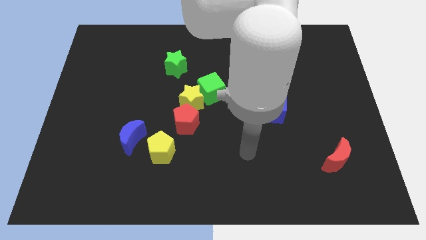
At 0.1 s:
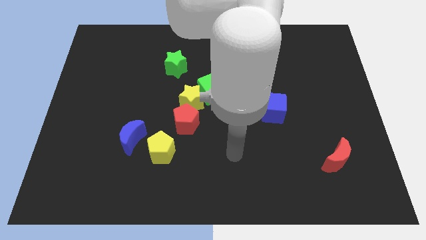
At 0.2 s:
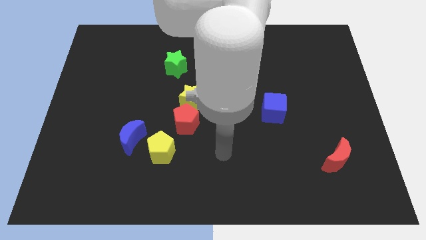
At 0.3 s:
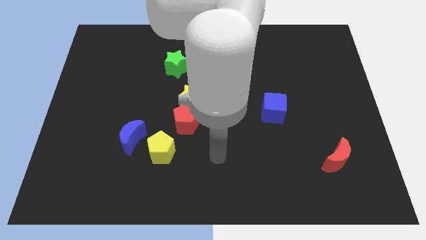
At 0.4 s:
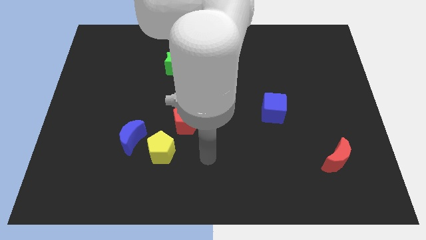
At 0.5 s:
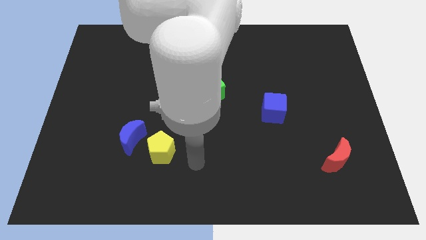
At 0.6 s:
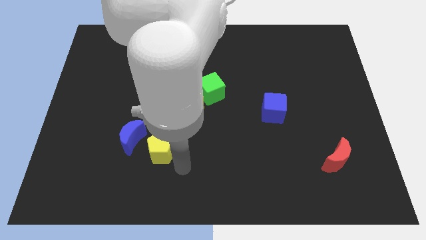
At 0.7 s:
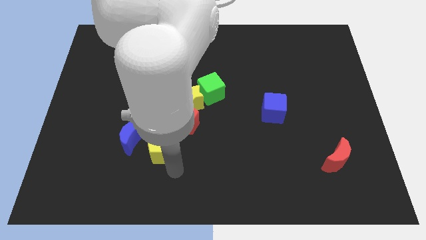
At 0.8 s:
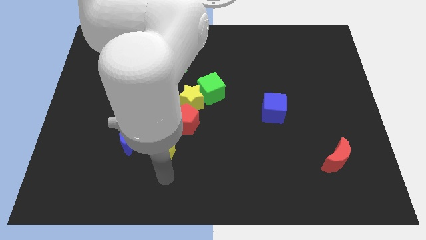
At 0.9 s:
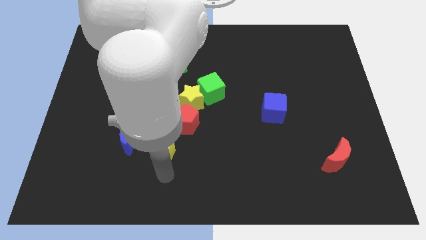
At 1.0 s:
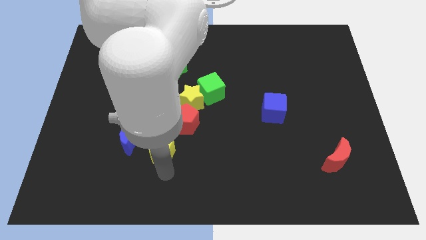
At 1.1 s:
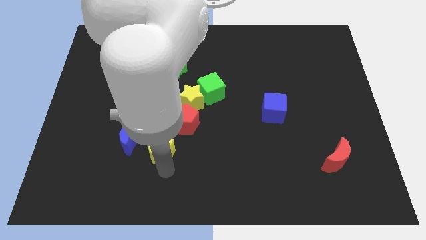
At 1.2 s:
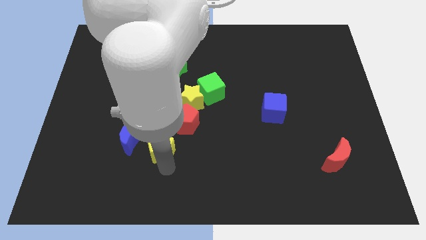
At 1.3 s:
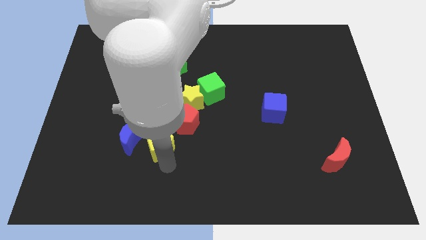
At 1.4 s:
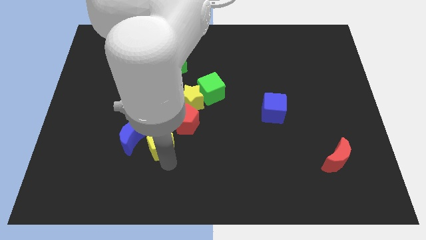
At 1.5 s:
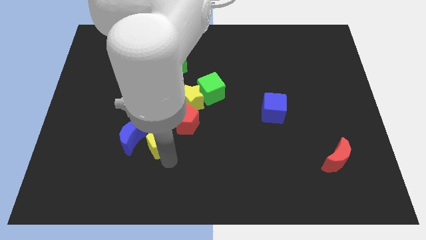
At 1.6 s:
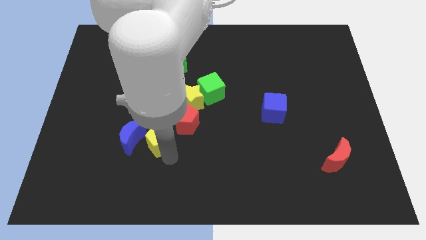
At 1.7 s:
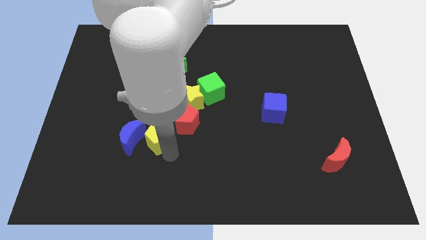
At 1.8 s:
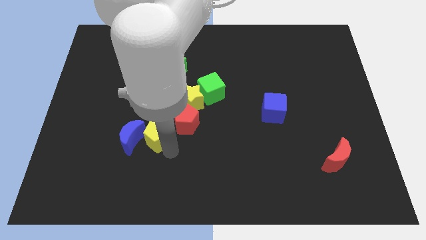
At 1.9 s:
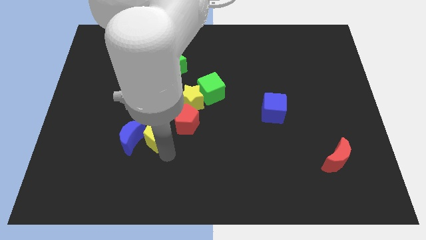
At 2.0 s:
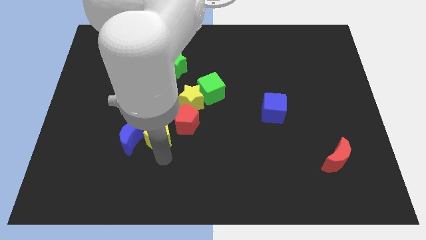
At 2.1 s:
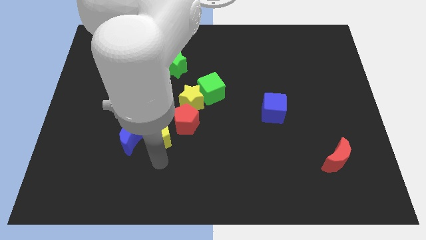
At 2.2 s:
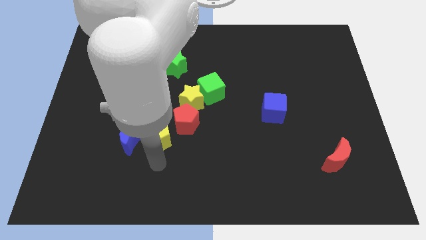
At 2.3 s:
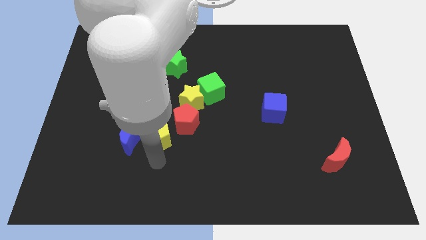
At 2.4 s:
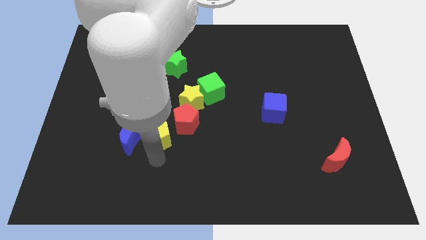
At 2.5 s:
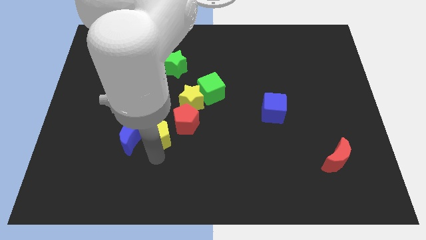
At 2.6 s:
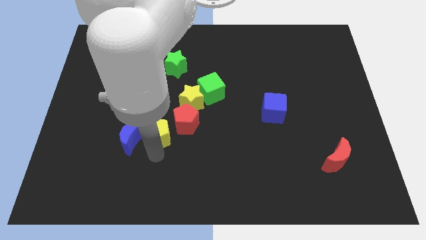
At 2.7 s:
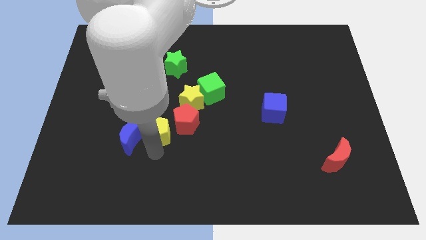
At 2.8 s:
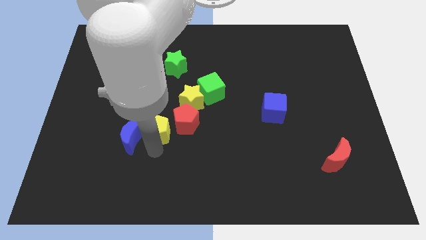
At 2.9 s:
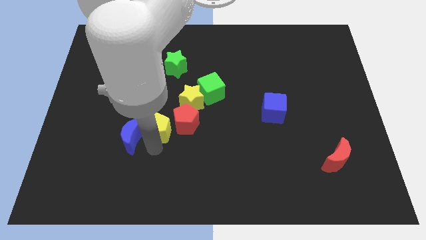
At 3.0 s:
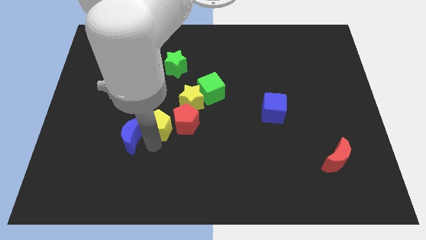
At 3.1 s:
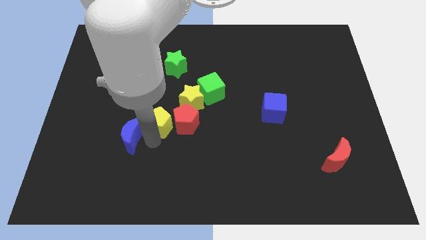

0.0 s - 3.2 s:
push the yellow pentagon up a little

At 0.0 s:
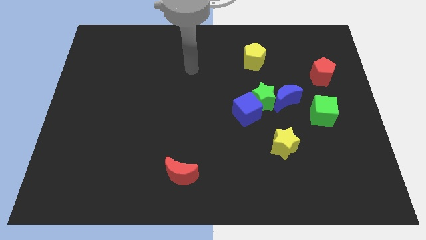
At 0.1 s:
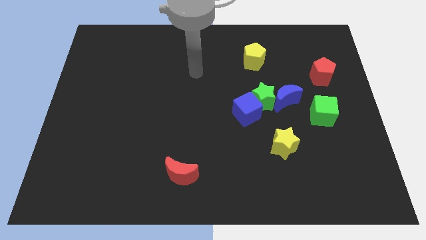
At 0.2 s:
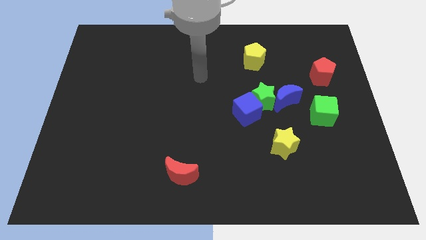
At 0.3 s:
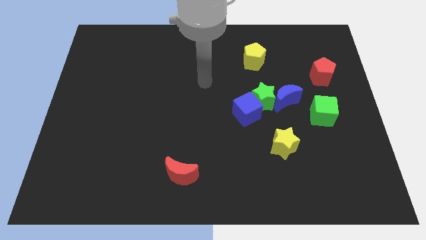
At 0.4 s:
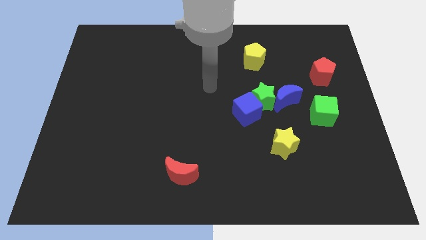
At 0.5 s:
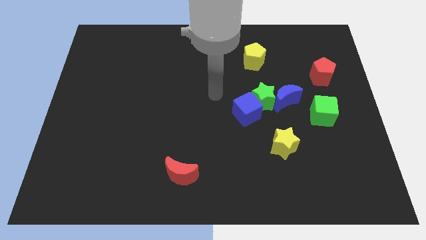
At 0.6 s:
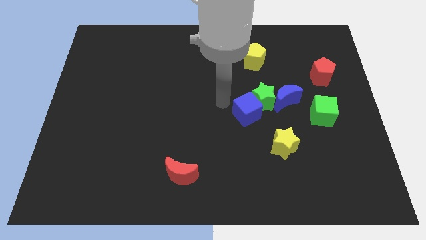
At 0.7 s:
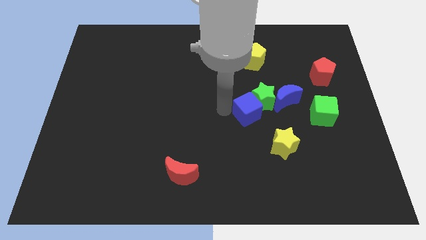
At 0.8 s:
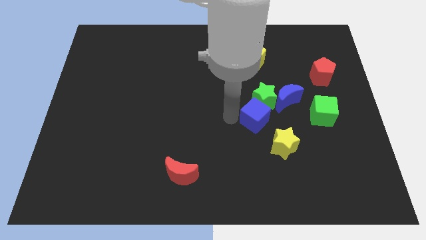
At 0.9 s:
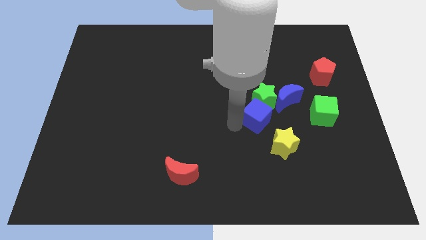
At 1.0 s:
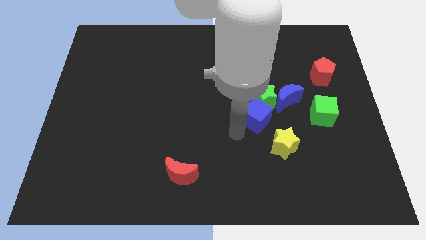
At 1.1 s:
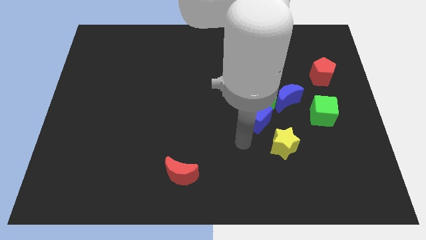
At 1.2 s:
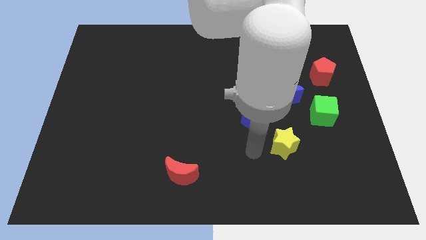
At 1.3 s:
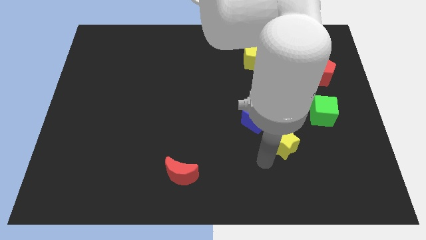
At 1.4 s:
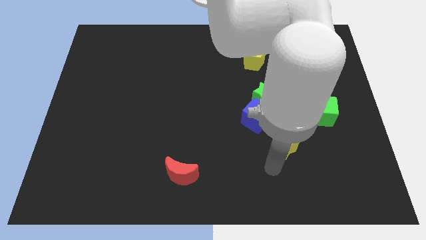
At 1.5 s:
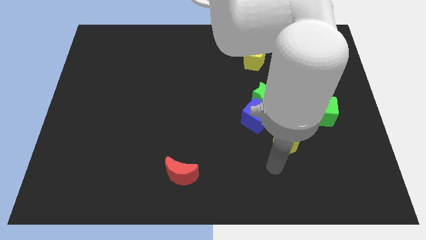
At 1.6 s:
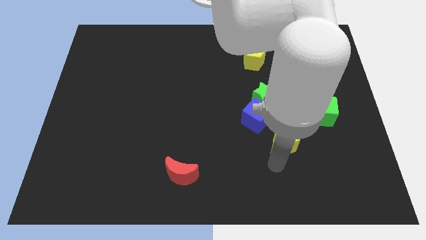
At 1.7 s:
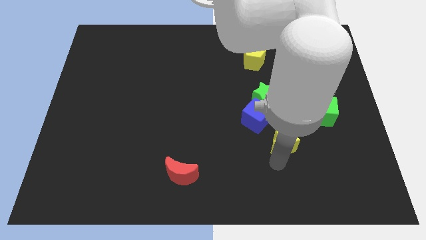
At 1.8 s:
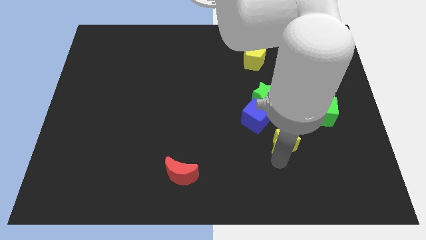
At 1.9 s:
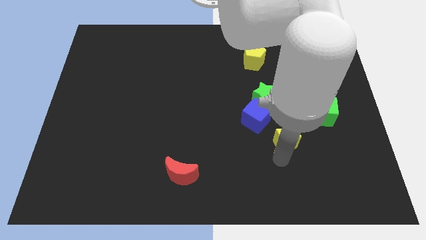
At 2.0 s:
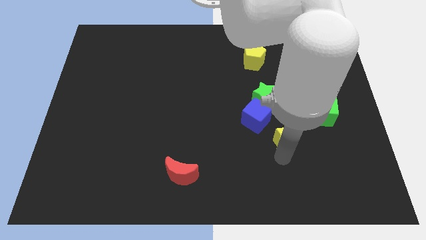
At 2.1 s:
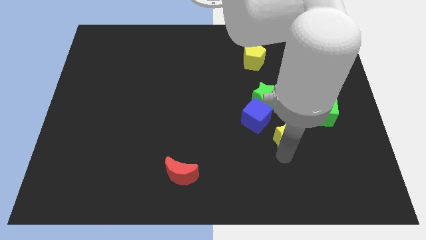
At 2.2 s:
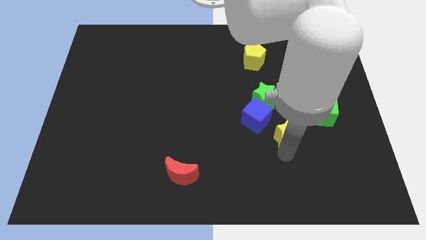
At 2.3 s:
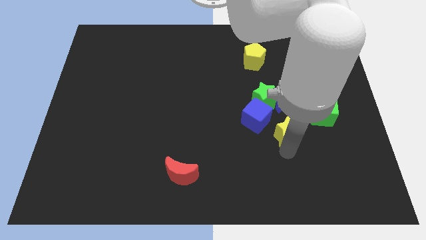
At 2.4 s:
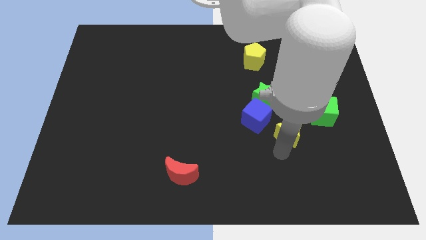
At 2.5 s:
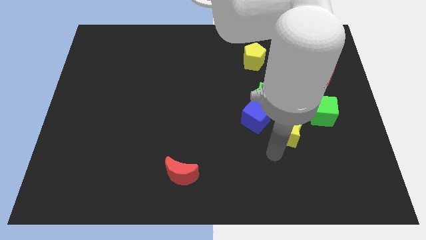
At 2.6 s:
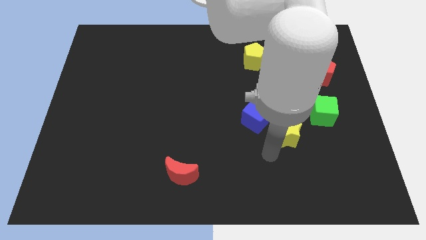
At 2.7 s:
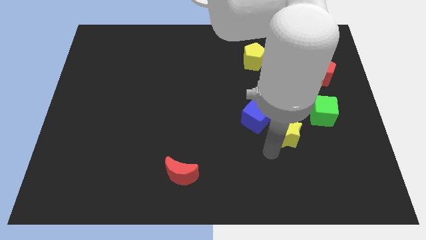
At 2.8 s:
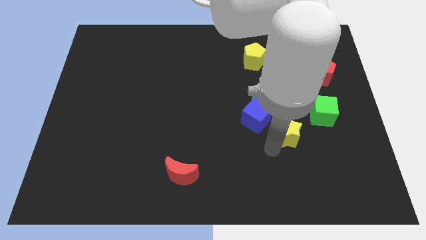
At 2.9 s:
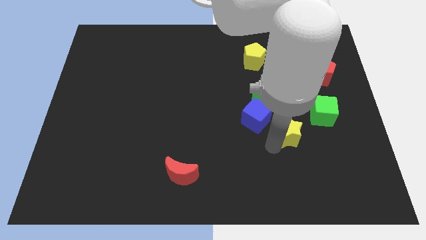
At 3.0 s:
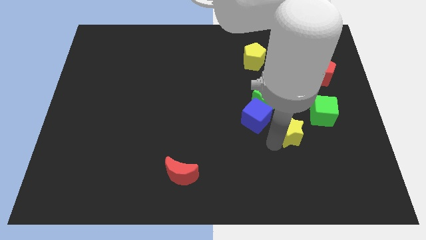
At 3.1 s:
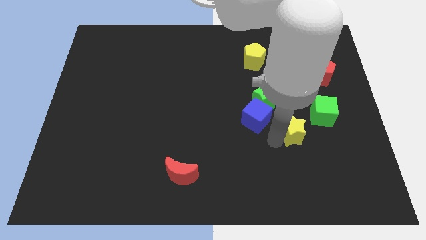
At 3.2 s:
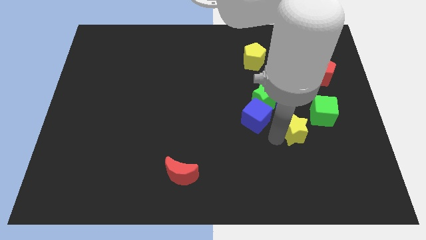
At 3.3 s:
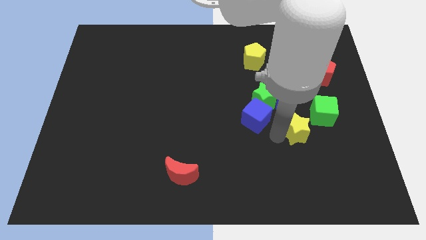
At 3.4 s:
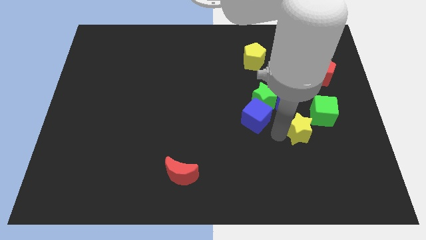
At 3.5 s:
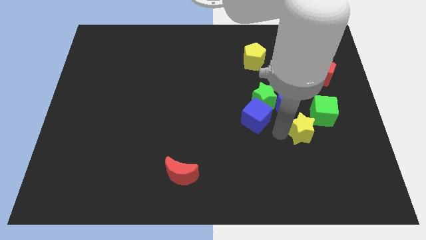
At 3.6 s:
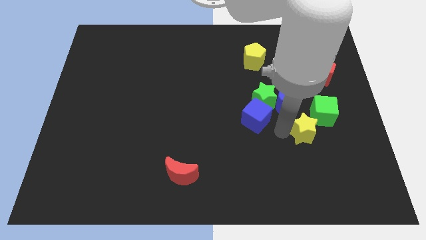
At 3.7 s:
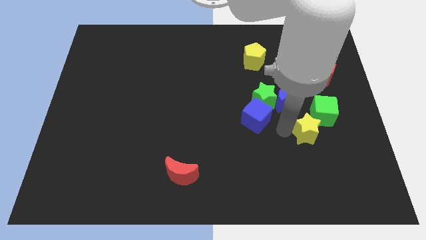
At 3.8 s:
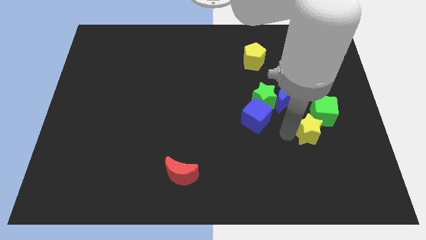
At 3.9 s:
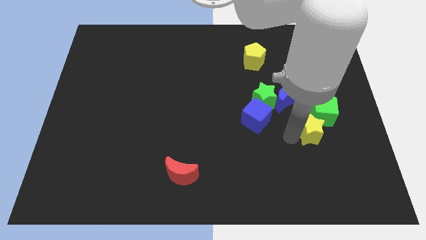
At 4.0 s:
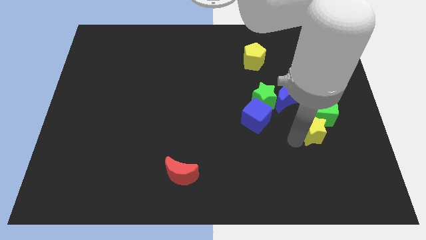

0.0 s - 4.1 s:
slightly move the yellow star up and to the right

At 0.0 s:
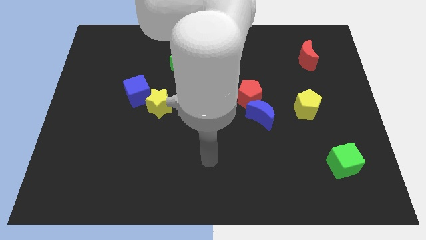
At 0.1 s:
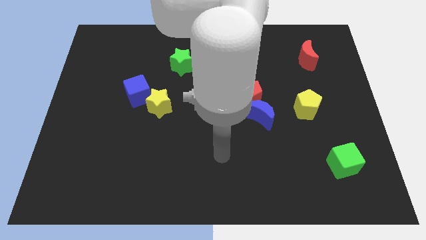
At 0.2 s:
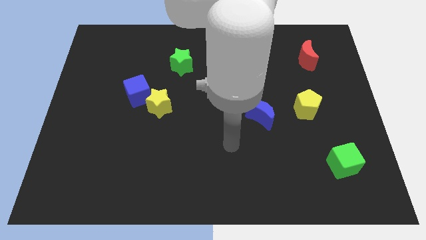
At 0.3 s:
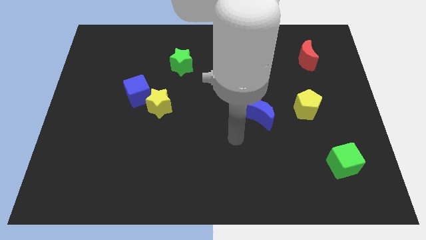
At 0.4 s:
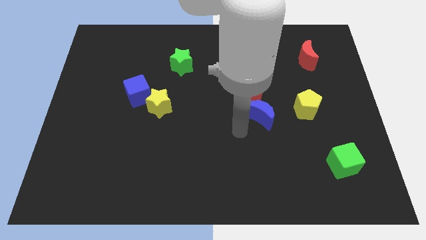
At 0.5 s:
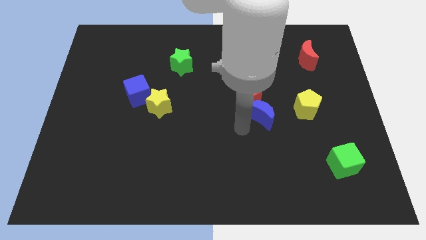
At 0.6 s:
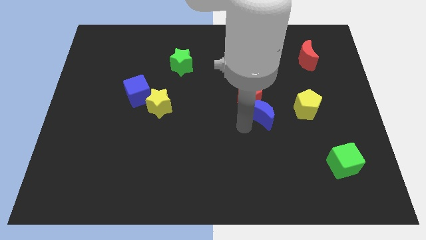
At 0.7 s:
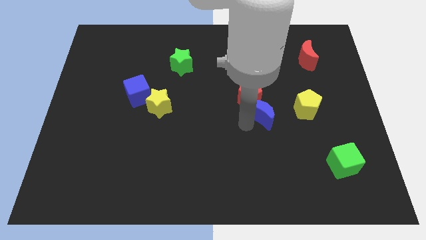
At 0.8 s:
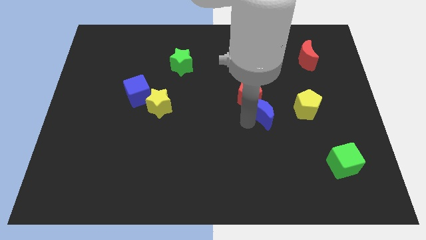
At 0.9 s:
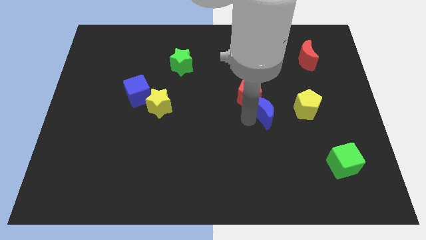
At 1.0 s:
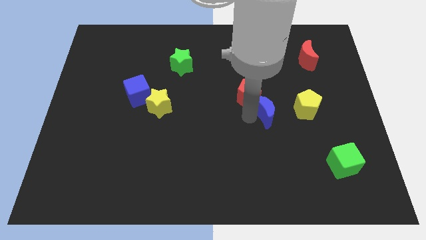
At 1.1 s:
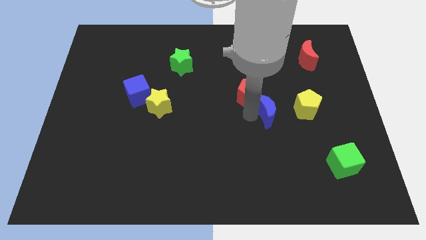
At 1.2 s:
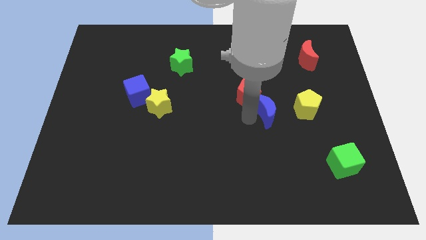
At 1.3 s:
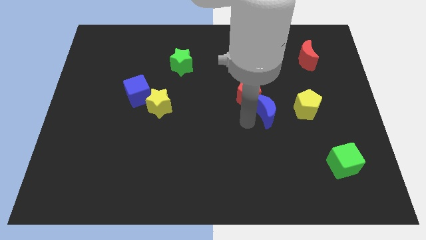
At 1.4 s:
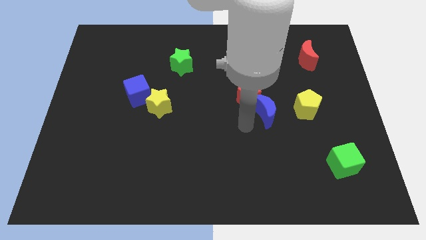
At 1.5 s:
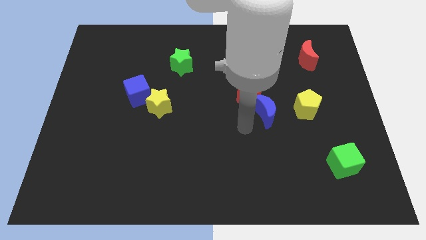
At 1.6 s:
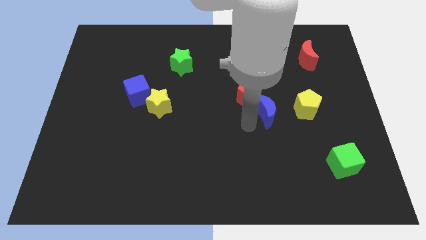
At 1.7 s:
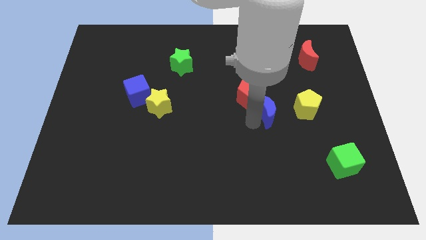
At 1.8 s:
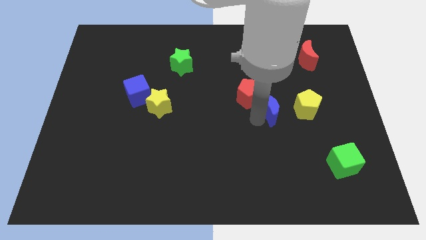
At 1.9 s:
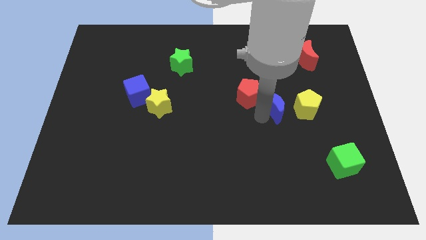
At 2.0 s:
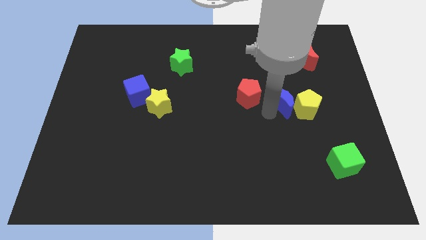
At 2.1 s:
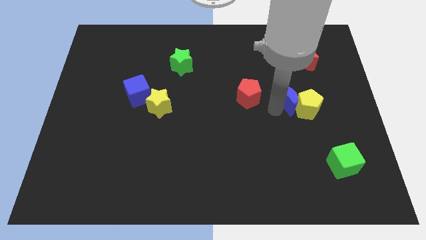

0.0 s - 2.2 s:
move the blue moon diagonally up and to the right a bit
